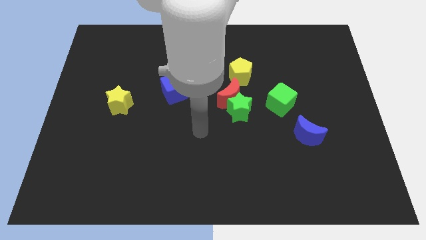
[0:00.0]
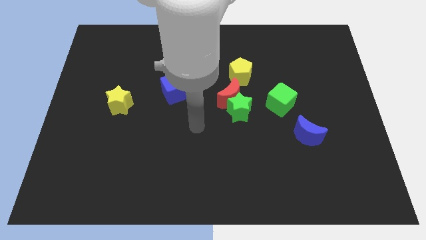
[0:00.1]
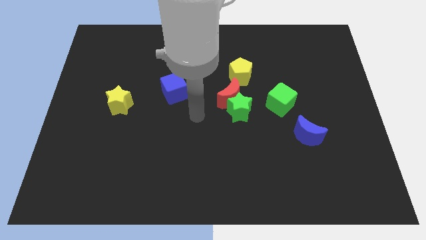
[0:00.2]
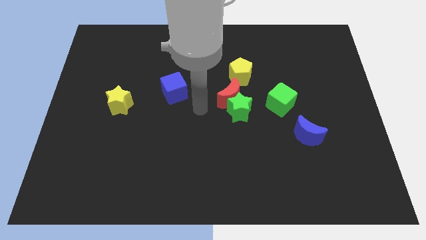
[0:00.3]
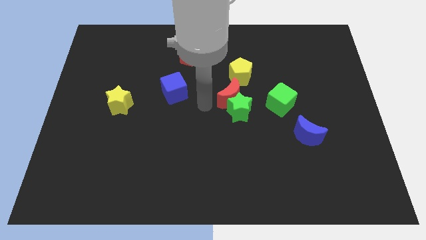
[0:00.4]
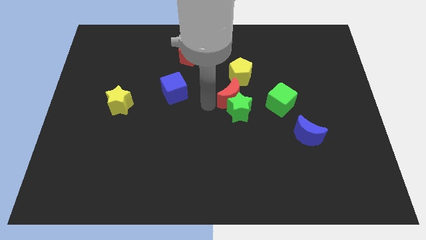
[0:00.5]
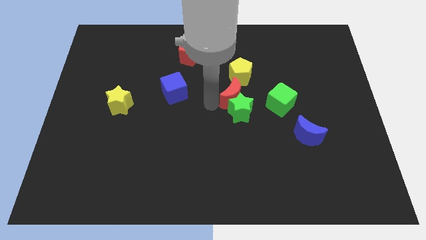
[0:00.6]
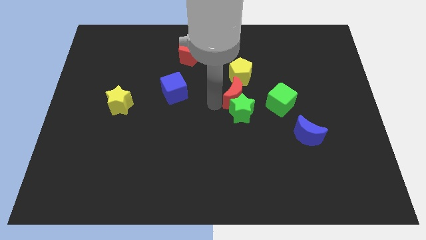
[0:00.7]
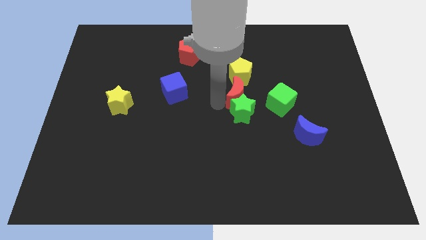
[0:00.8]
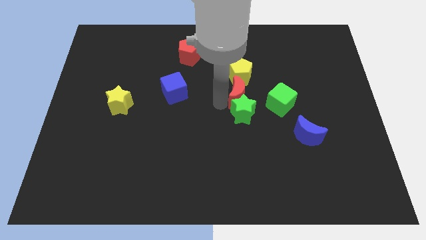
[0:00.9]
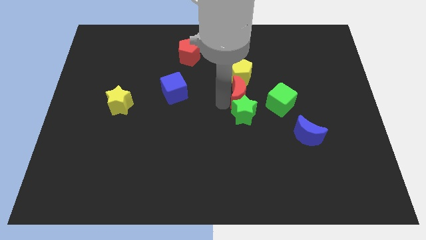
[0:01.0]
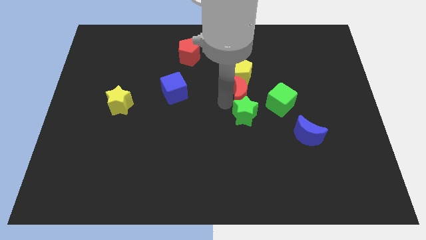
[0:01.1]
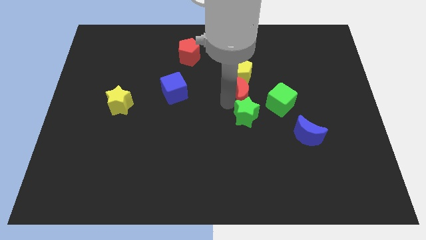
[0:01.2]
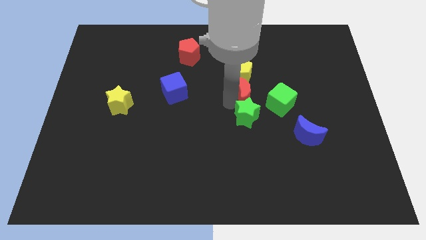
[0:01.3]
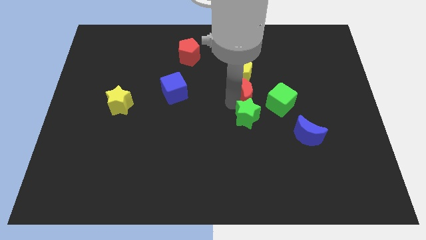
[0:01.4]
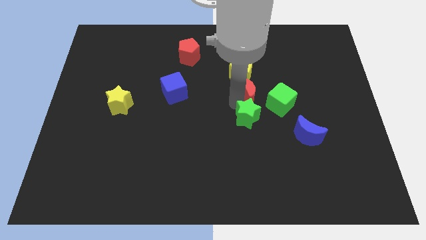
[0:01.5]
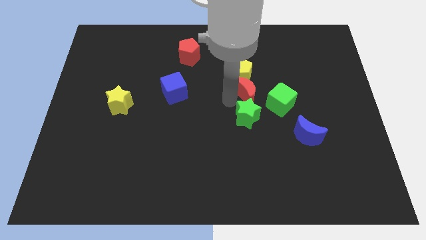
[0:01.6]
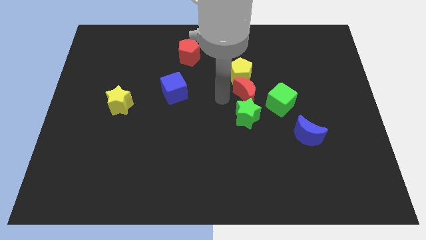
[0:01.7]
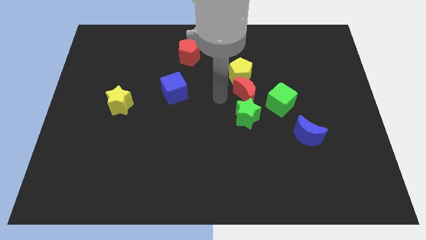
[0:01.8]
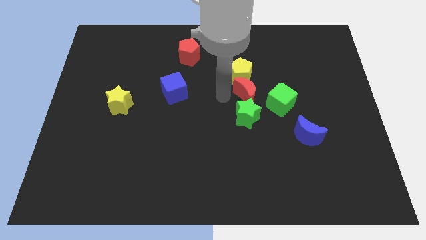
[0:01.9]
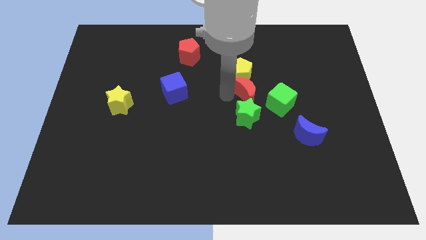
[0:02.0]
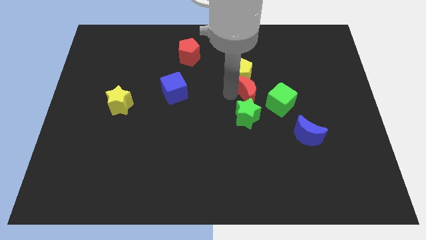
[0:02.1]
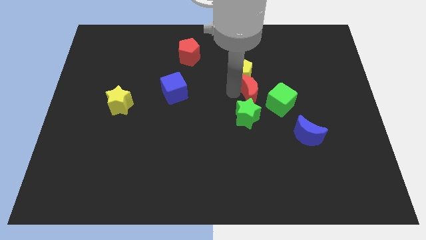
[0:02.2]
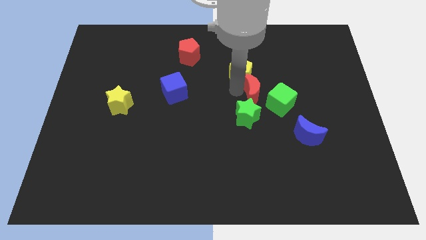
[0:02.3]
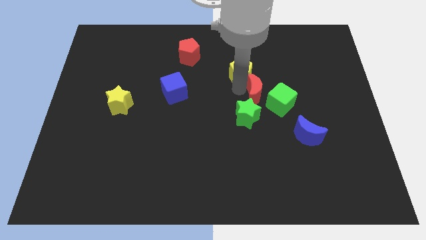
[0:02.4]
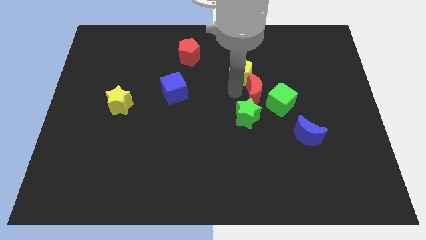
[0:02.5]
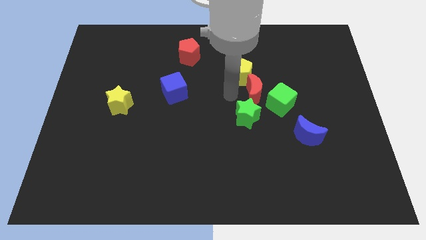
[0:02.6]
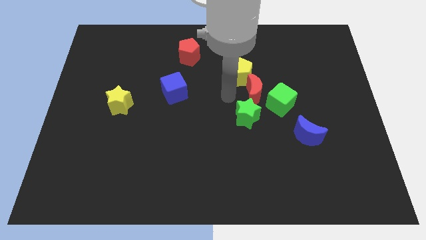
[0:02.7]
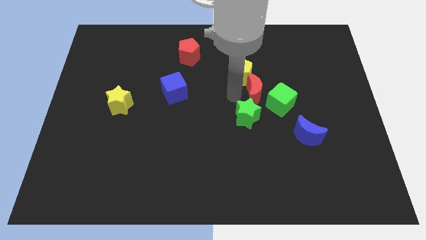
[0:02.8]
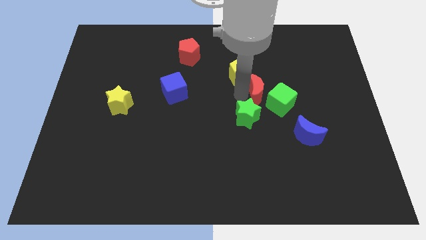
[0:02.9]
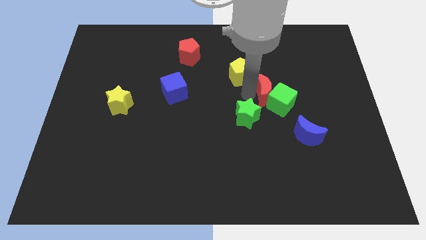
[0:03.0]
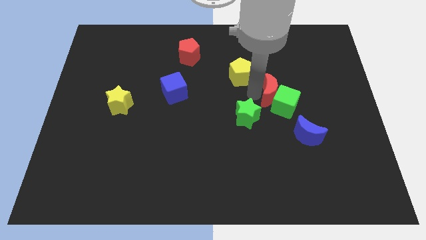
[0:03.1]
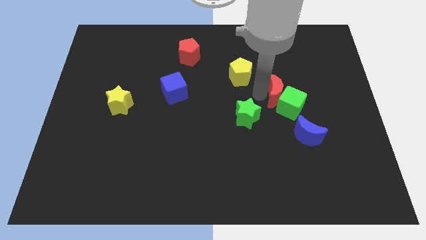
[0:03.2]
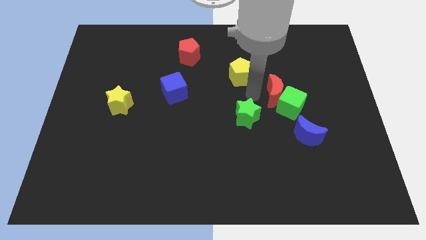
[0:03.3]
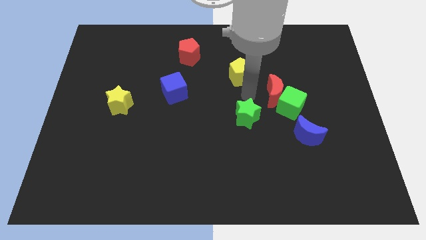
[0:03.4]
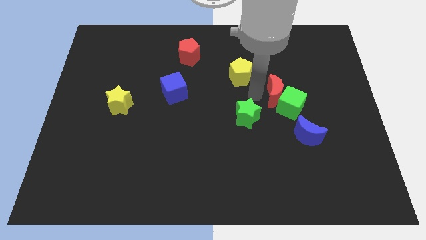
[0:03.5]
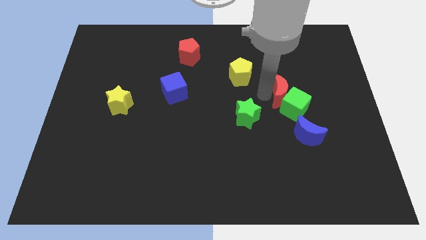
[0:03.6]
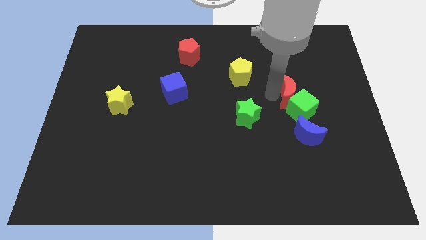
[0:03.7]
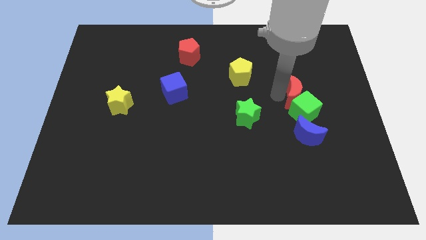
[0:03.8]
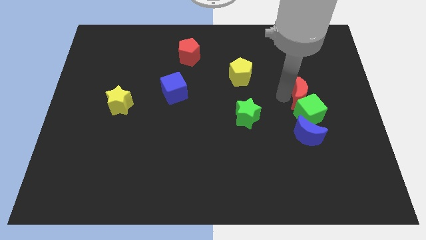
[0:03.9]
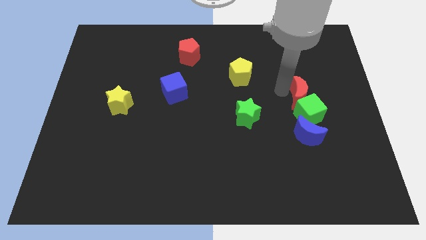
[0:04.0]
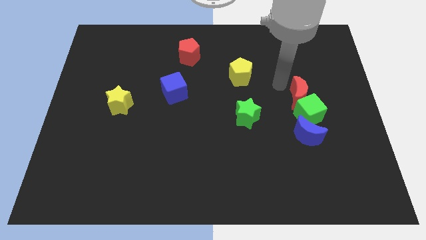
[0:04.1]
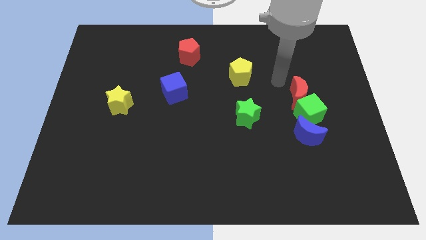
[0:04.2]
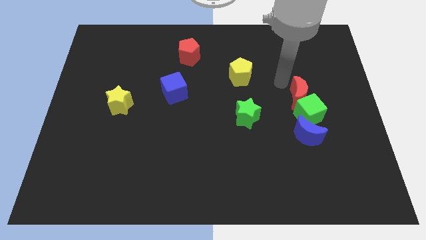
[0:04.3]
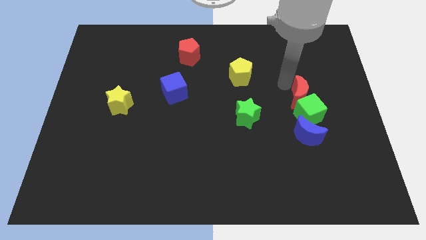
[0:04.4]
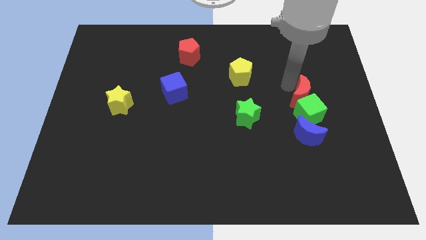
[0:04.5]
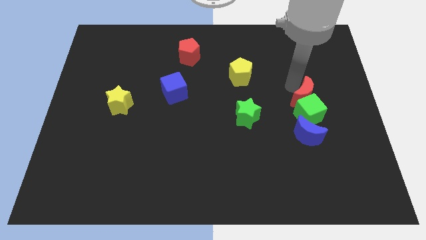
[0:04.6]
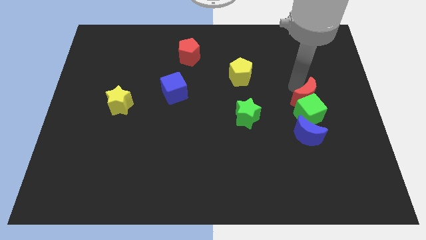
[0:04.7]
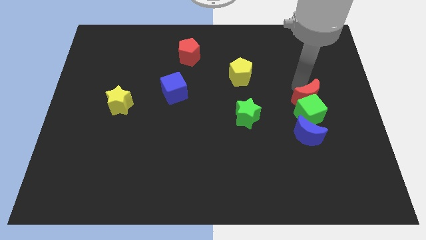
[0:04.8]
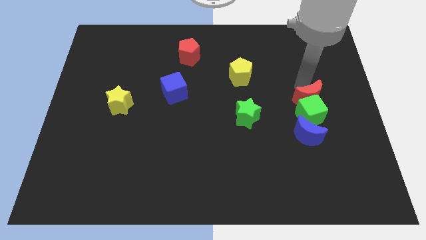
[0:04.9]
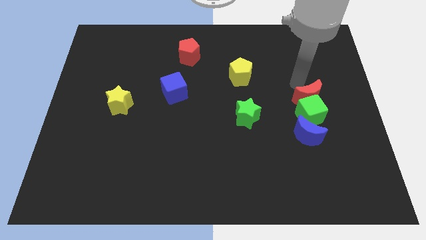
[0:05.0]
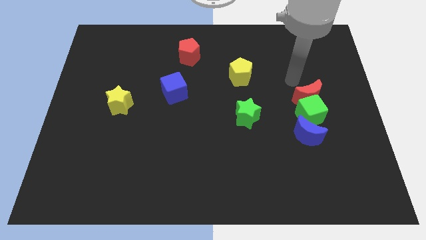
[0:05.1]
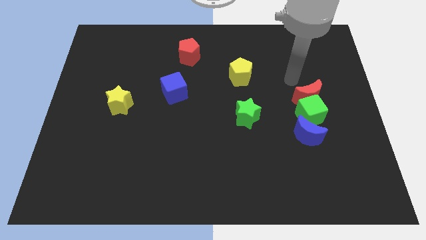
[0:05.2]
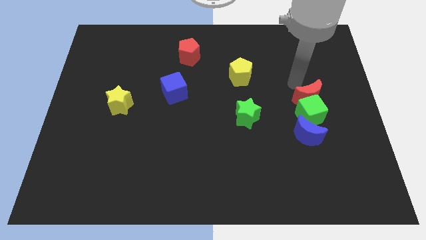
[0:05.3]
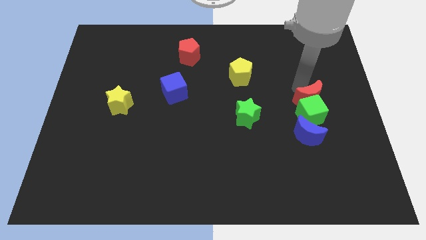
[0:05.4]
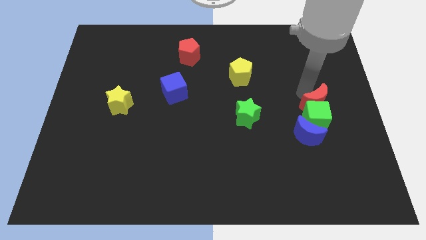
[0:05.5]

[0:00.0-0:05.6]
push the red moon to the top right side of the blue moon

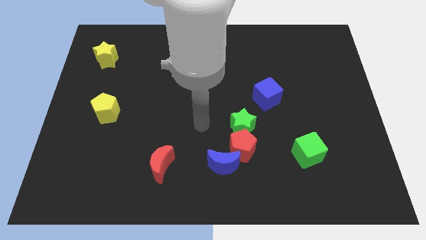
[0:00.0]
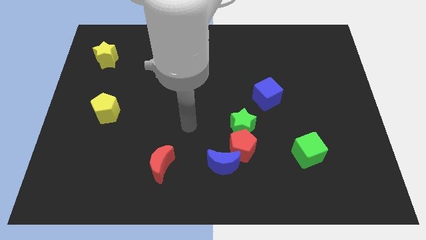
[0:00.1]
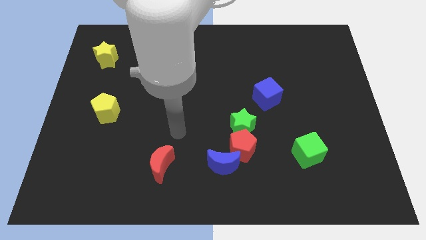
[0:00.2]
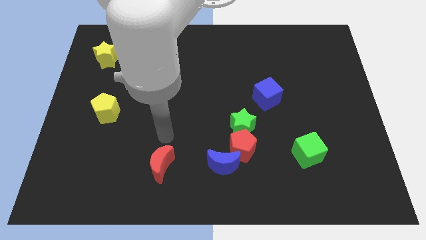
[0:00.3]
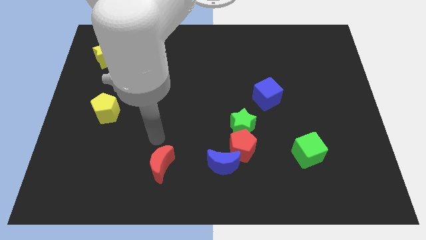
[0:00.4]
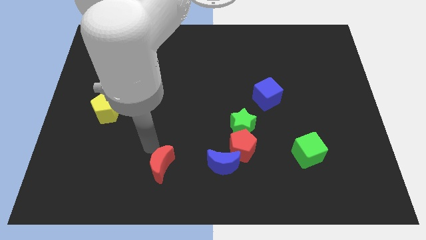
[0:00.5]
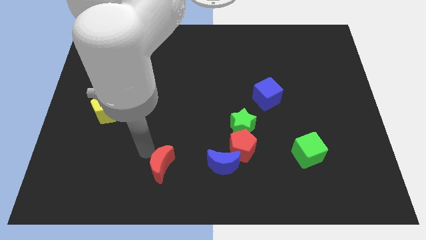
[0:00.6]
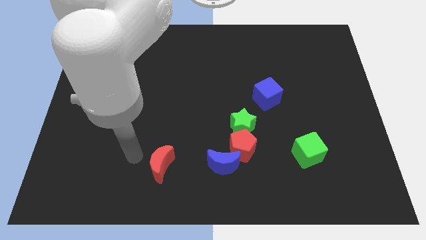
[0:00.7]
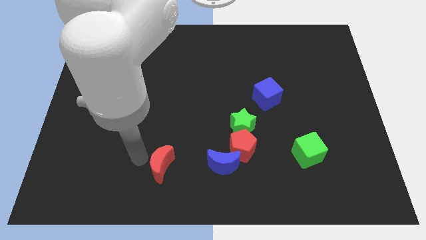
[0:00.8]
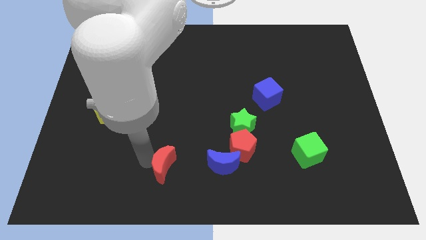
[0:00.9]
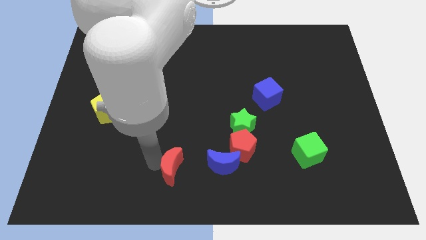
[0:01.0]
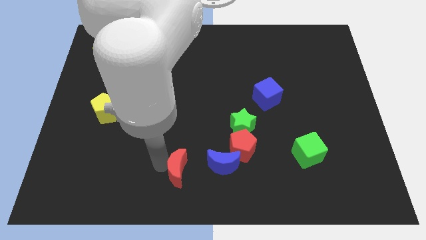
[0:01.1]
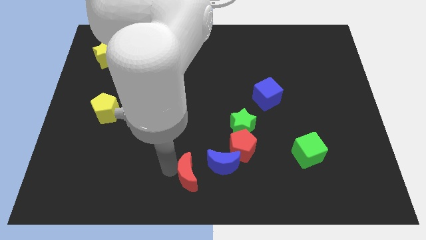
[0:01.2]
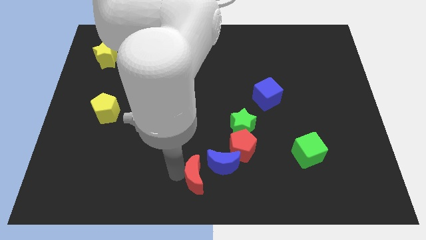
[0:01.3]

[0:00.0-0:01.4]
put the red moon to the bottom left of the red pentagon
